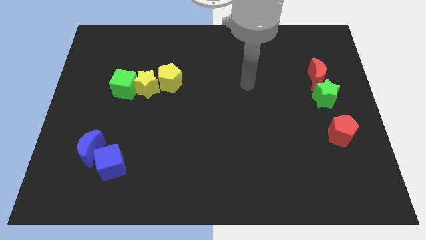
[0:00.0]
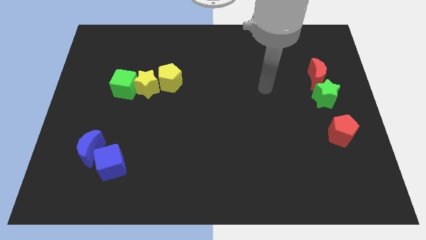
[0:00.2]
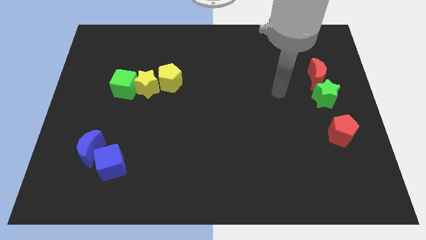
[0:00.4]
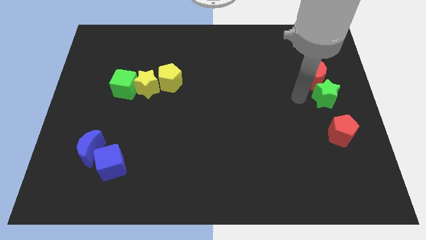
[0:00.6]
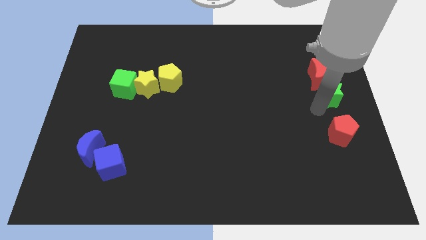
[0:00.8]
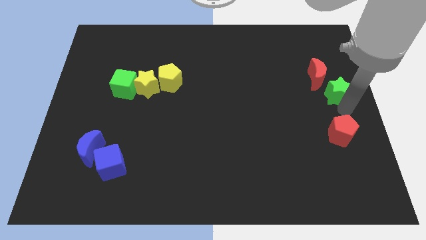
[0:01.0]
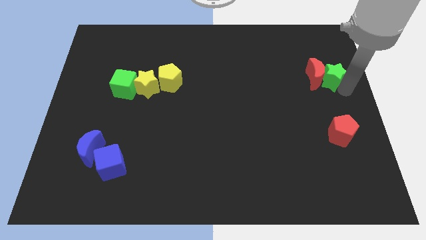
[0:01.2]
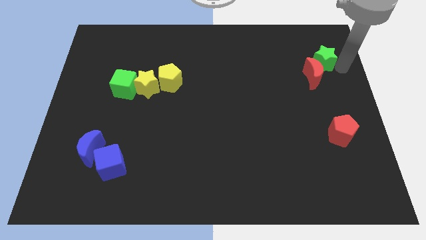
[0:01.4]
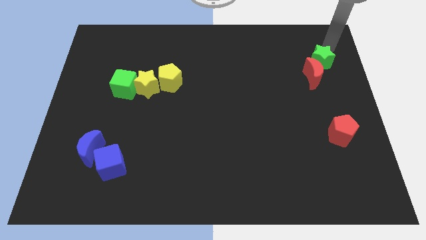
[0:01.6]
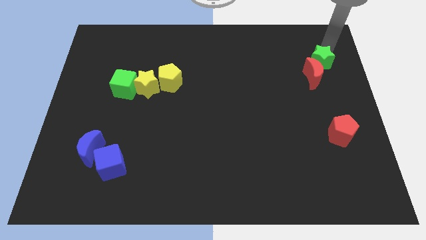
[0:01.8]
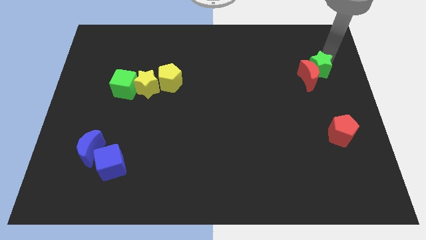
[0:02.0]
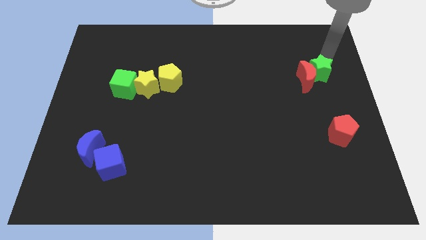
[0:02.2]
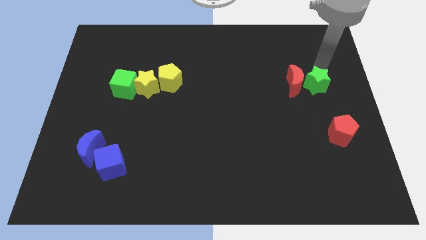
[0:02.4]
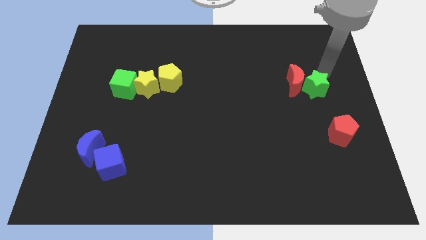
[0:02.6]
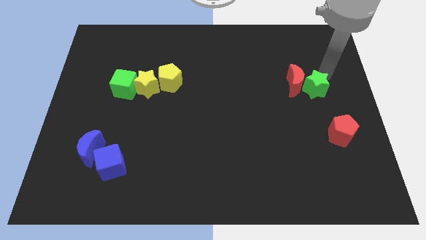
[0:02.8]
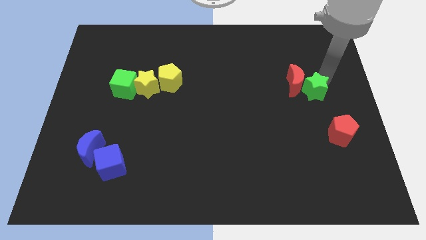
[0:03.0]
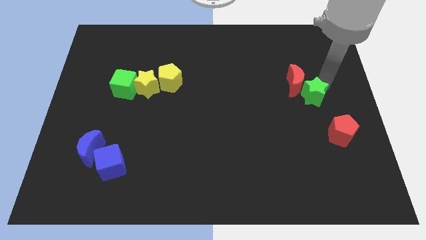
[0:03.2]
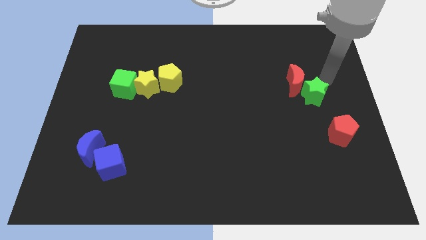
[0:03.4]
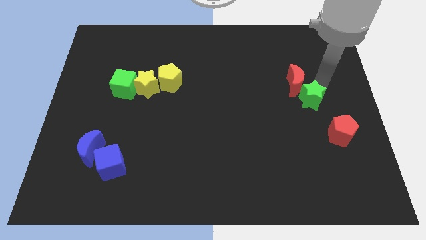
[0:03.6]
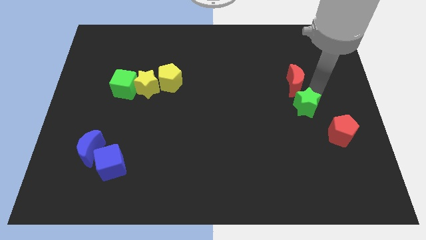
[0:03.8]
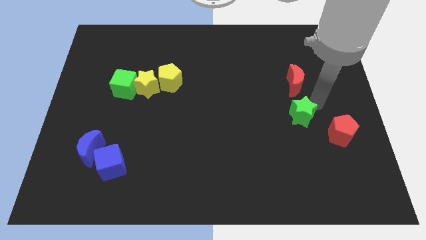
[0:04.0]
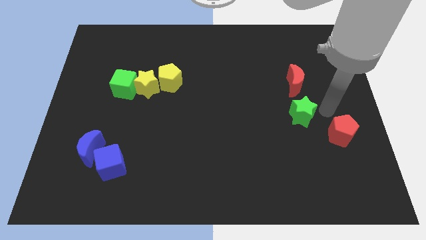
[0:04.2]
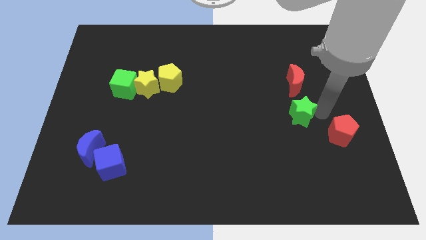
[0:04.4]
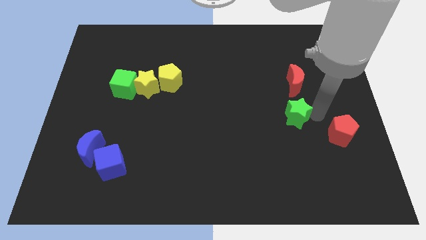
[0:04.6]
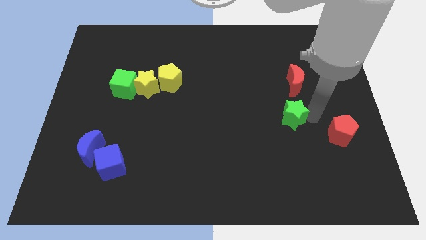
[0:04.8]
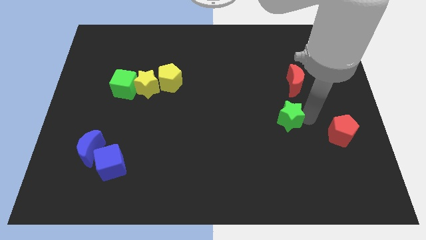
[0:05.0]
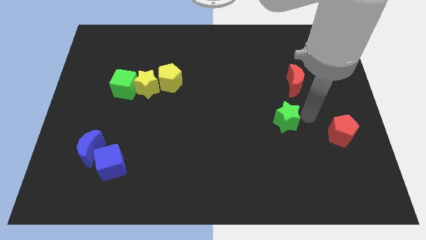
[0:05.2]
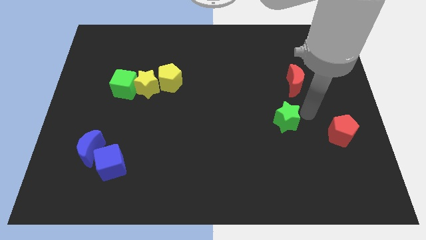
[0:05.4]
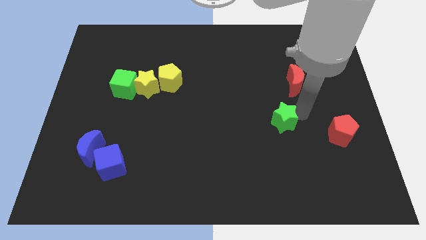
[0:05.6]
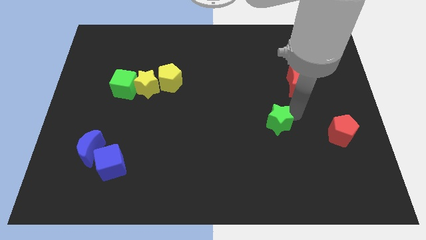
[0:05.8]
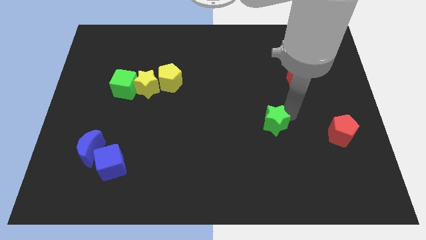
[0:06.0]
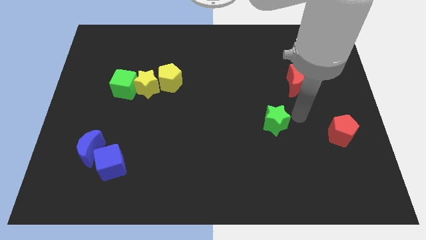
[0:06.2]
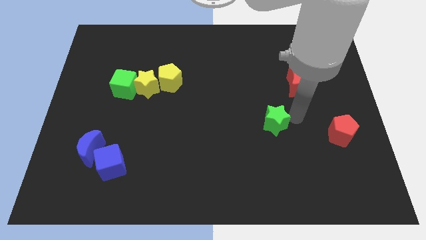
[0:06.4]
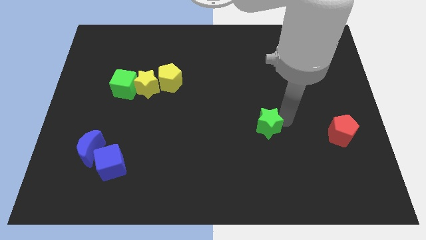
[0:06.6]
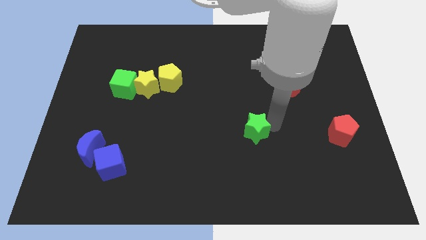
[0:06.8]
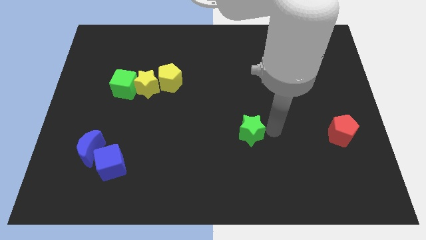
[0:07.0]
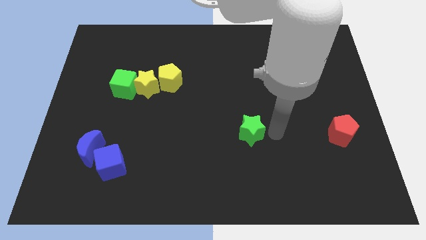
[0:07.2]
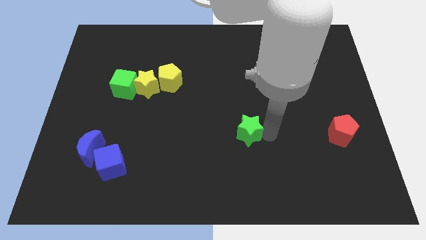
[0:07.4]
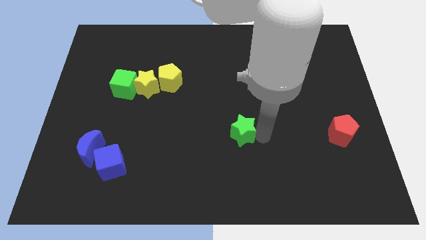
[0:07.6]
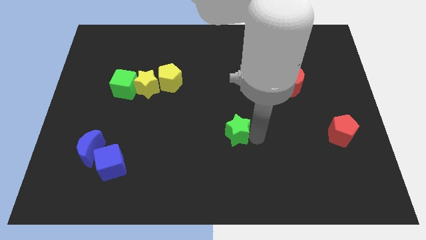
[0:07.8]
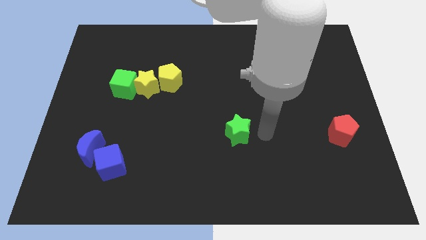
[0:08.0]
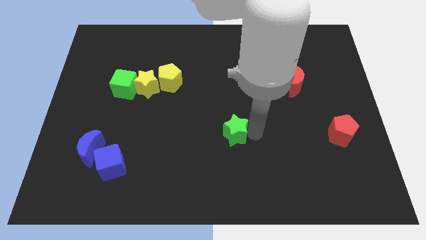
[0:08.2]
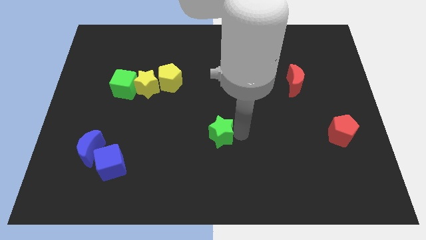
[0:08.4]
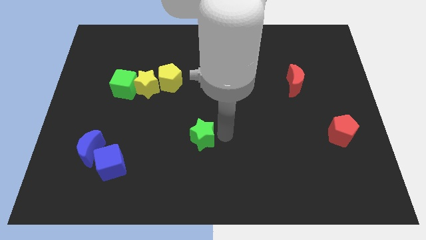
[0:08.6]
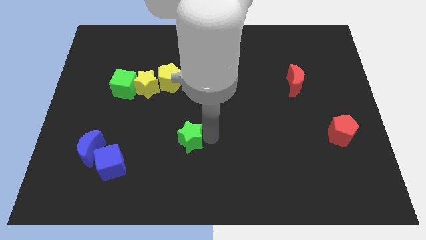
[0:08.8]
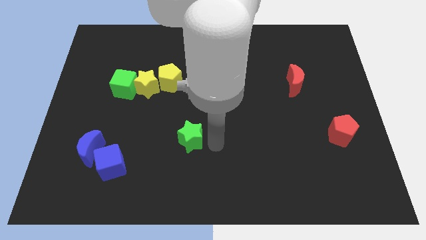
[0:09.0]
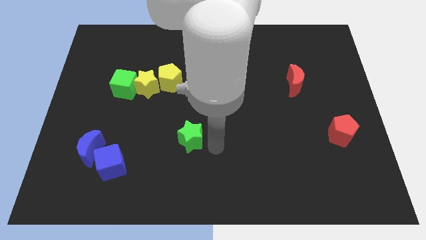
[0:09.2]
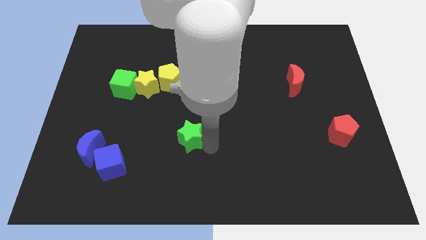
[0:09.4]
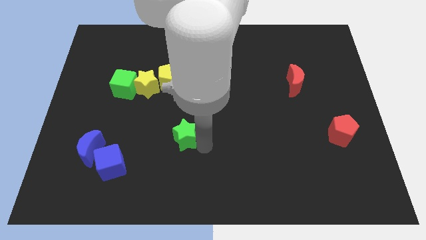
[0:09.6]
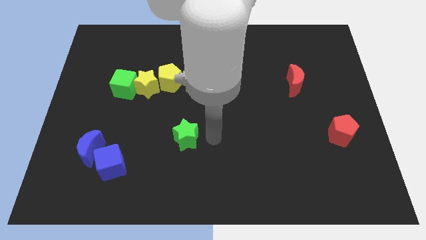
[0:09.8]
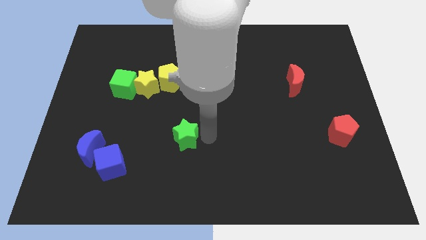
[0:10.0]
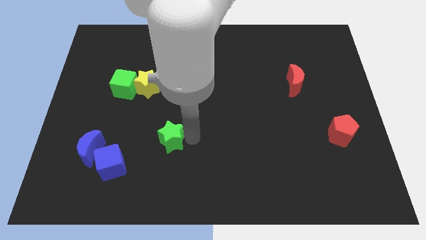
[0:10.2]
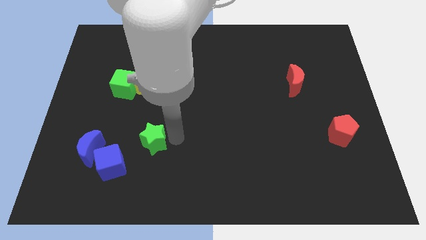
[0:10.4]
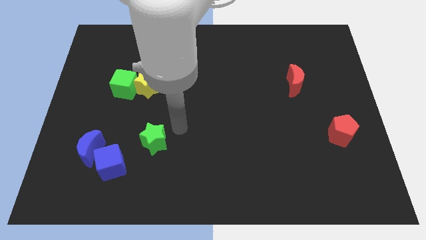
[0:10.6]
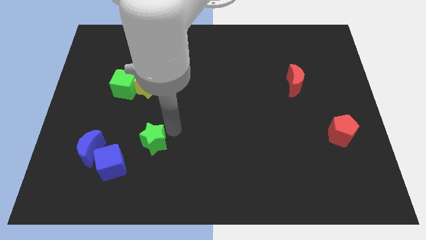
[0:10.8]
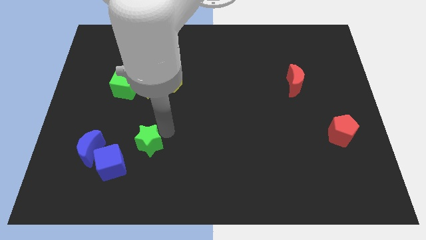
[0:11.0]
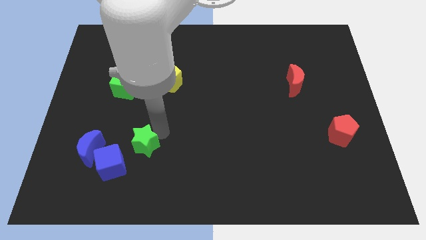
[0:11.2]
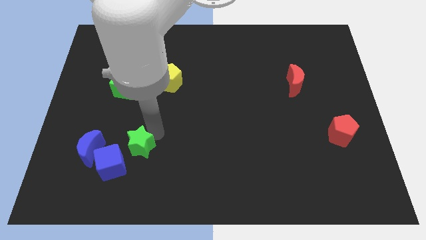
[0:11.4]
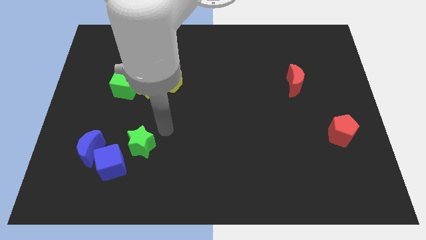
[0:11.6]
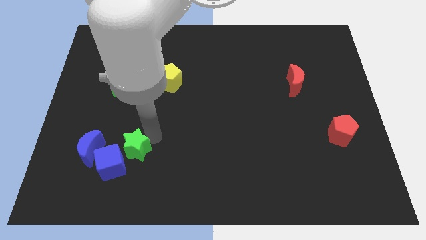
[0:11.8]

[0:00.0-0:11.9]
move the green star close to the blue cube

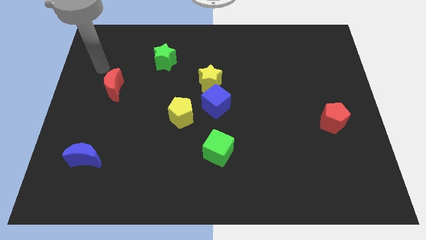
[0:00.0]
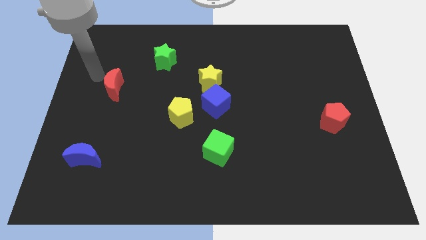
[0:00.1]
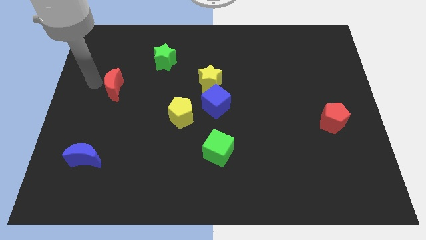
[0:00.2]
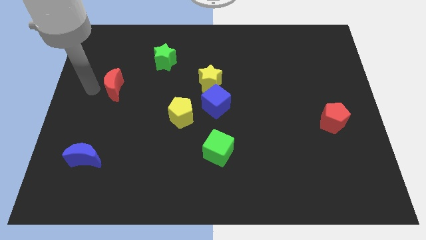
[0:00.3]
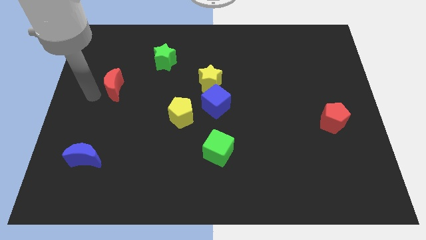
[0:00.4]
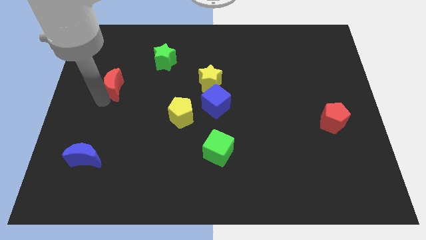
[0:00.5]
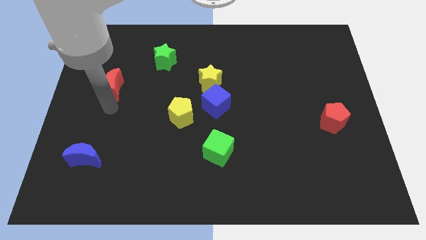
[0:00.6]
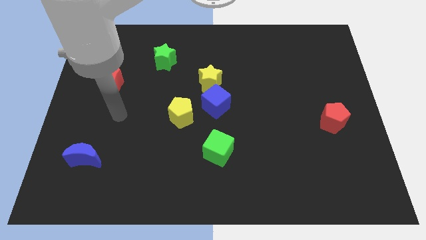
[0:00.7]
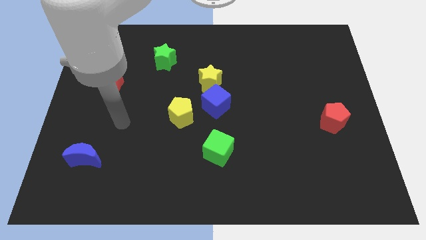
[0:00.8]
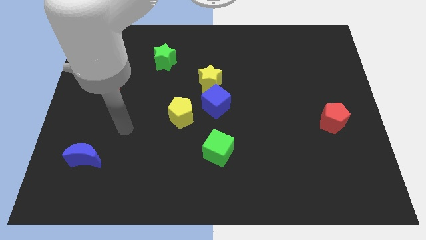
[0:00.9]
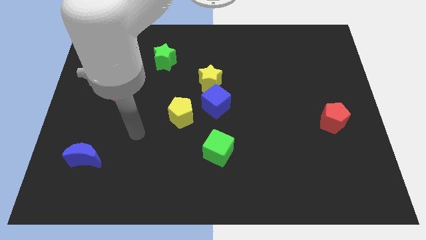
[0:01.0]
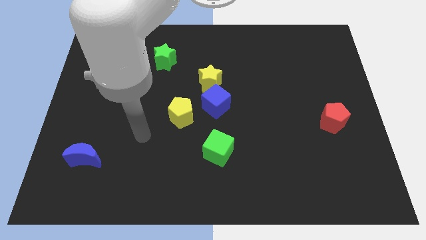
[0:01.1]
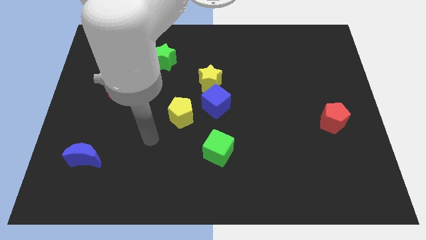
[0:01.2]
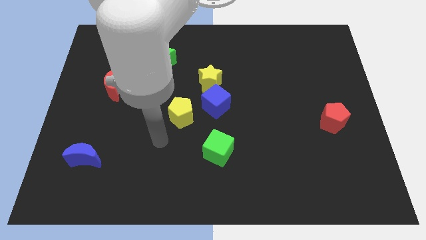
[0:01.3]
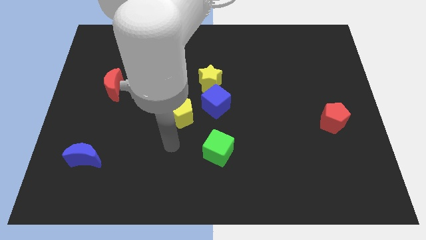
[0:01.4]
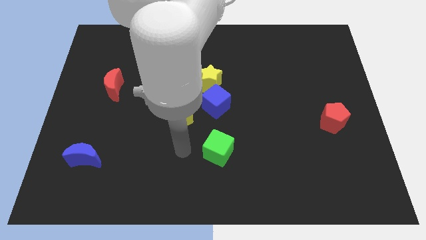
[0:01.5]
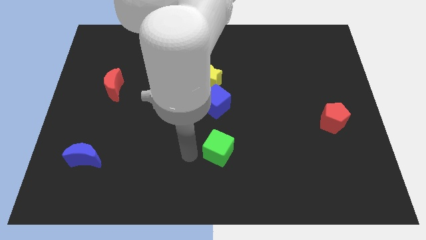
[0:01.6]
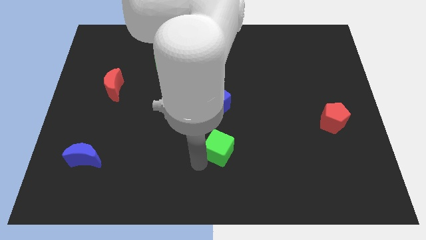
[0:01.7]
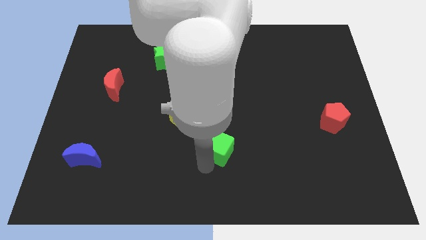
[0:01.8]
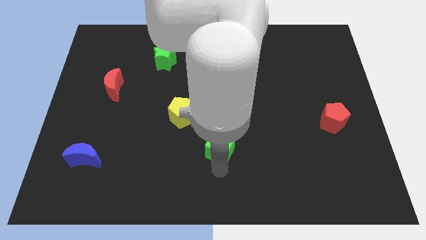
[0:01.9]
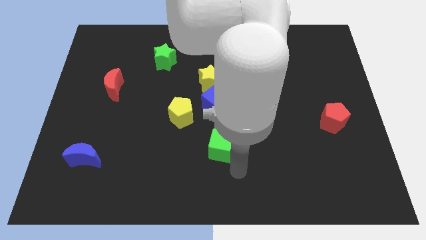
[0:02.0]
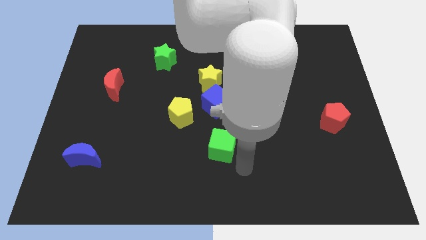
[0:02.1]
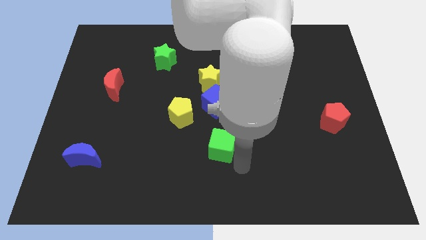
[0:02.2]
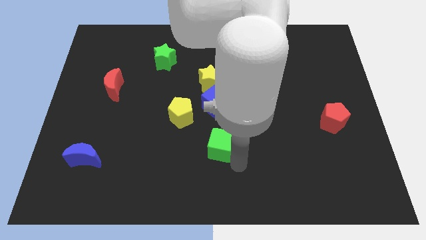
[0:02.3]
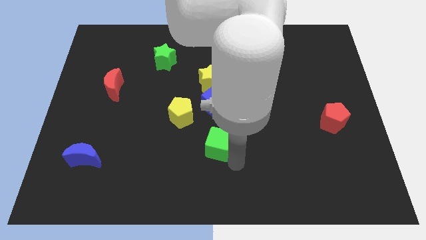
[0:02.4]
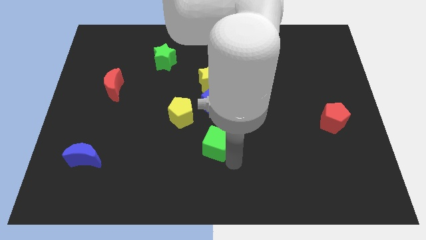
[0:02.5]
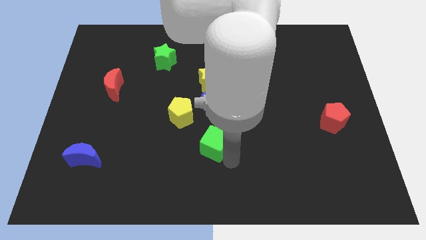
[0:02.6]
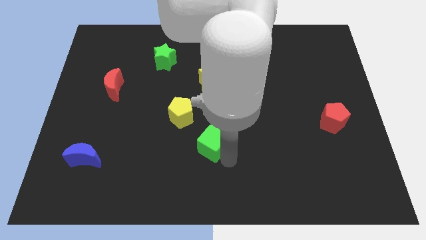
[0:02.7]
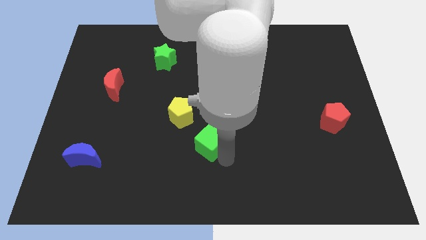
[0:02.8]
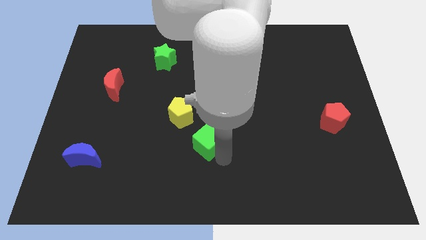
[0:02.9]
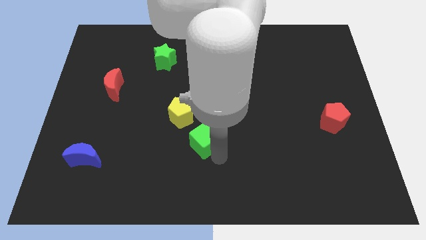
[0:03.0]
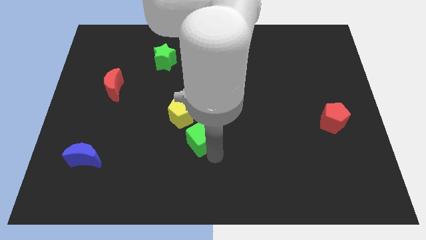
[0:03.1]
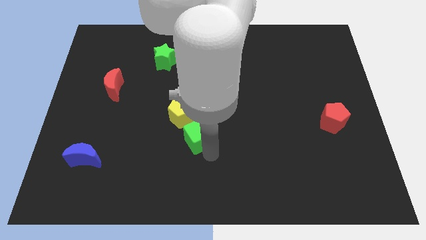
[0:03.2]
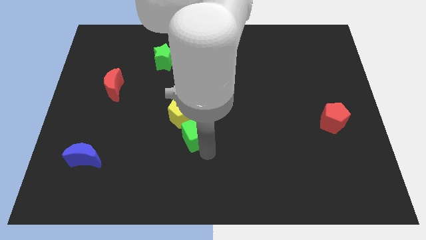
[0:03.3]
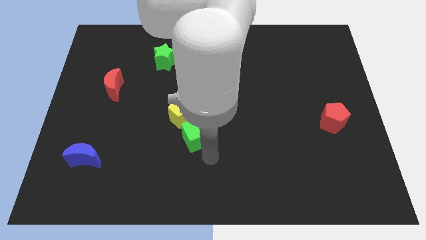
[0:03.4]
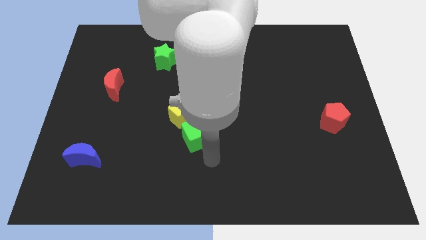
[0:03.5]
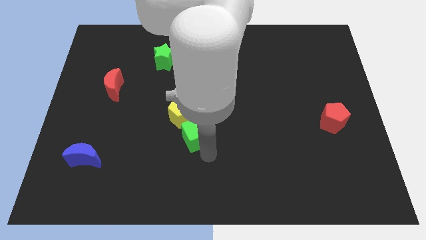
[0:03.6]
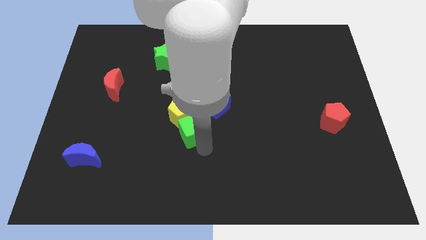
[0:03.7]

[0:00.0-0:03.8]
move the green cube next to the yellow pentagon
